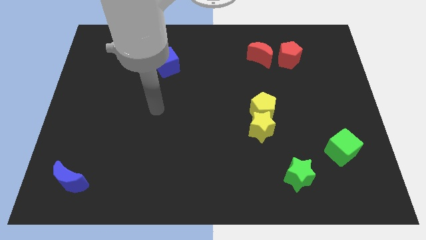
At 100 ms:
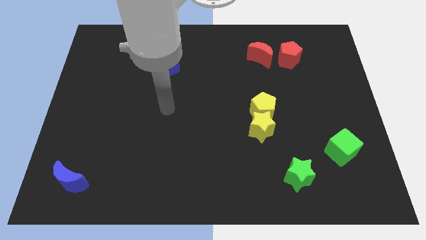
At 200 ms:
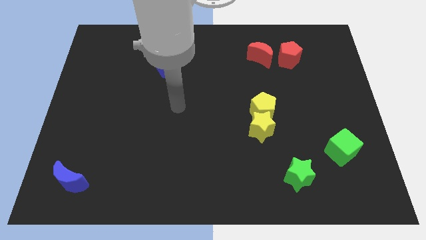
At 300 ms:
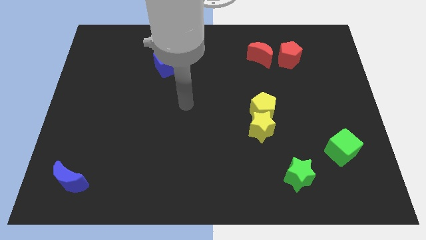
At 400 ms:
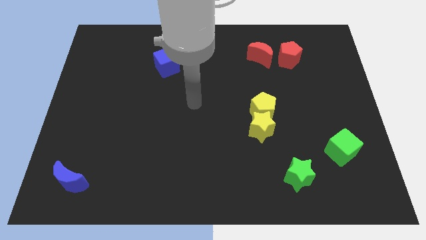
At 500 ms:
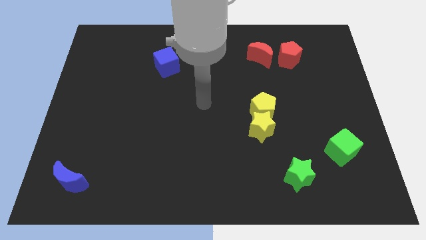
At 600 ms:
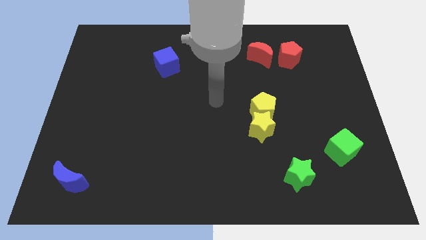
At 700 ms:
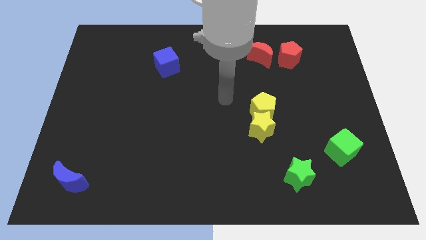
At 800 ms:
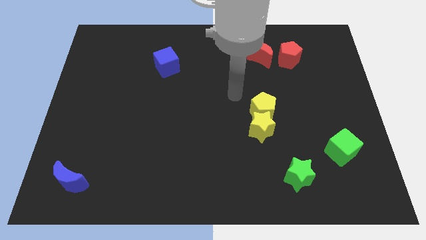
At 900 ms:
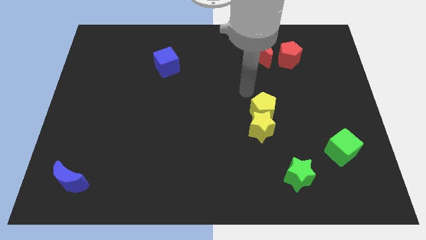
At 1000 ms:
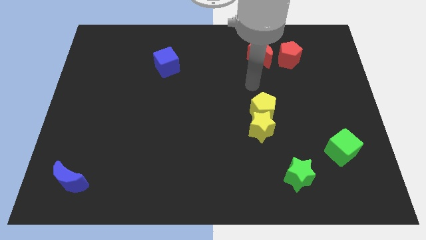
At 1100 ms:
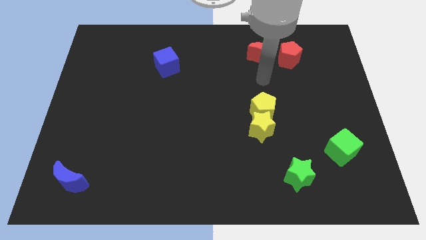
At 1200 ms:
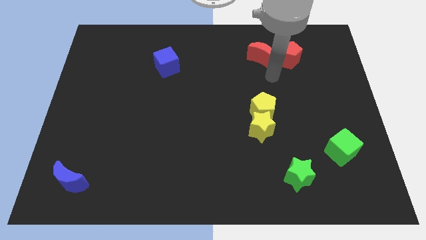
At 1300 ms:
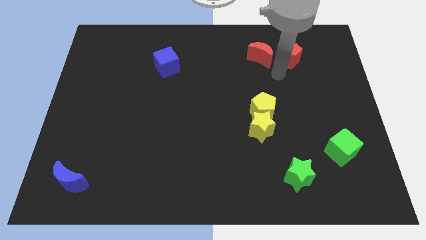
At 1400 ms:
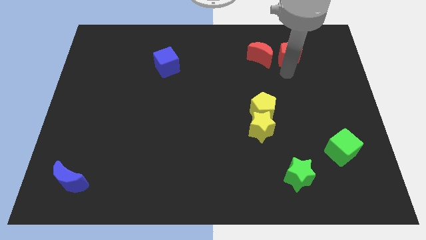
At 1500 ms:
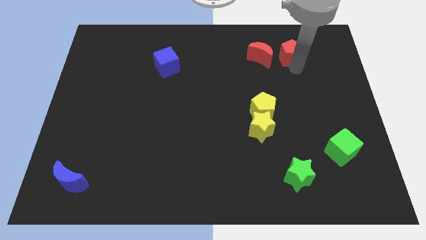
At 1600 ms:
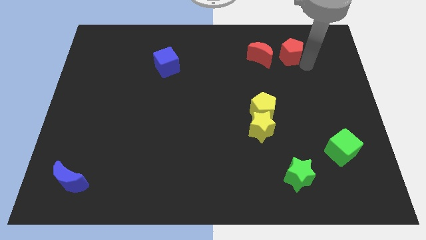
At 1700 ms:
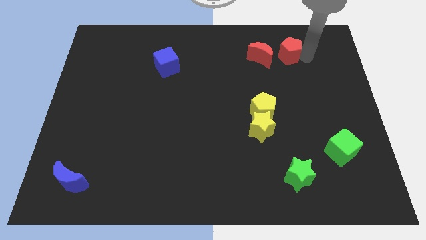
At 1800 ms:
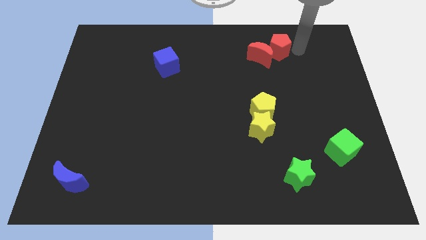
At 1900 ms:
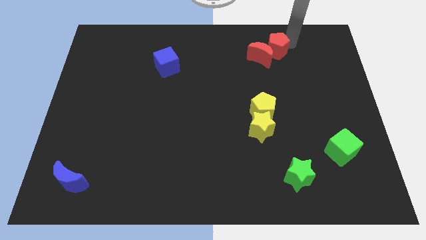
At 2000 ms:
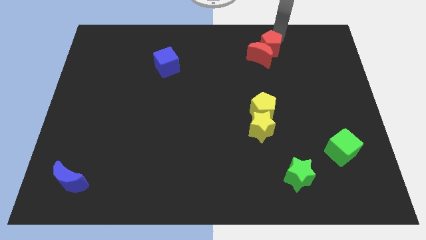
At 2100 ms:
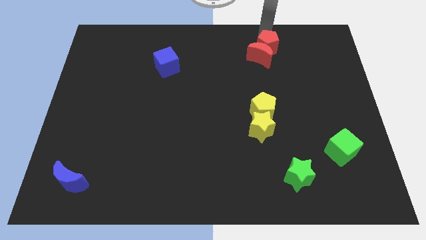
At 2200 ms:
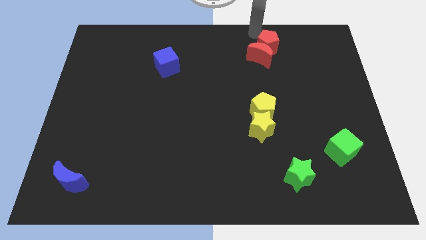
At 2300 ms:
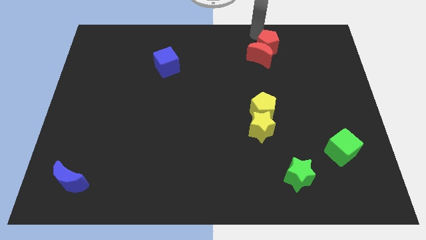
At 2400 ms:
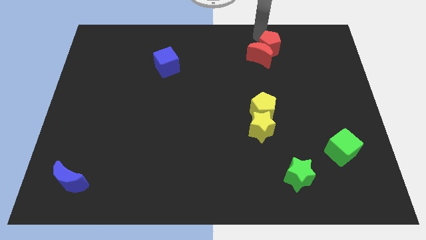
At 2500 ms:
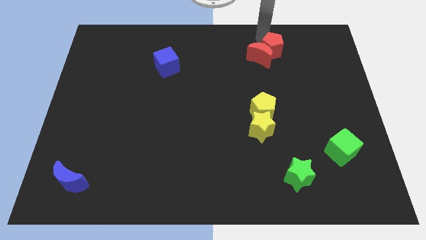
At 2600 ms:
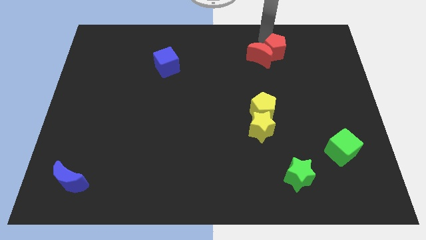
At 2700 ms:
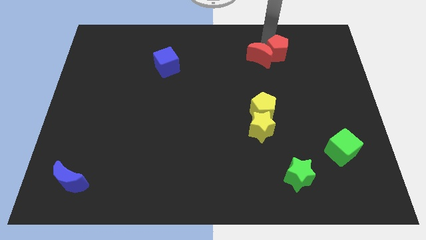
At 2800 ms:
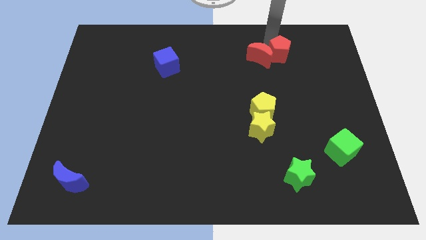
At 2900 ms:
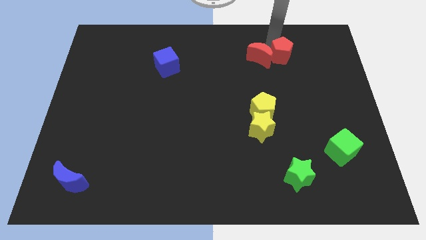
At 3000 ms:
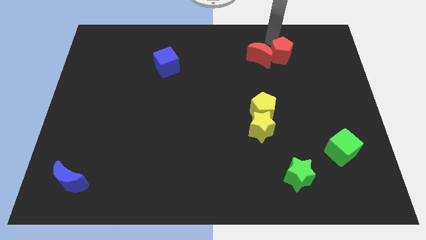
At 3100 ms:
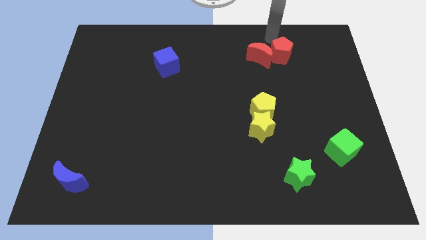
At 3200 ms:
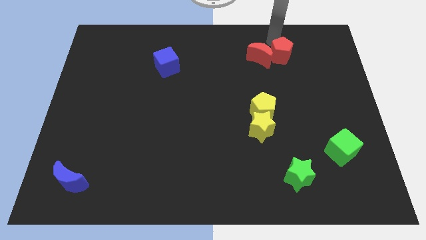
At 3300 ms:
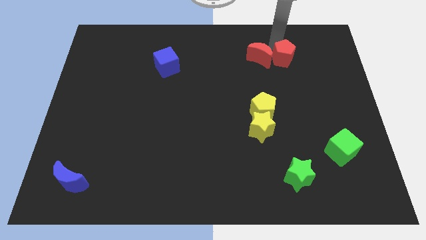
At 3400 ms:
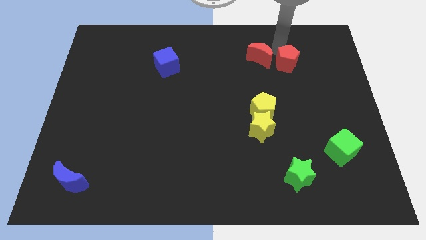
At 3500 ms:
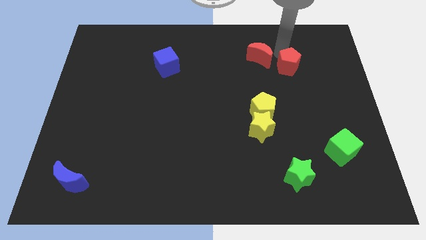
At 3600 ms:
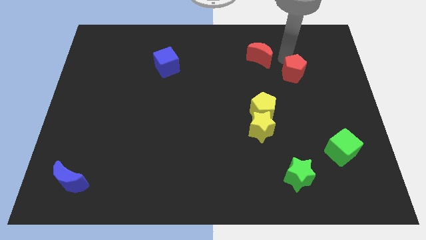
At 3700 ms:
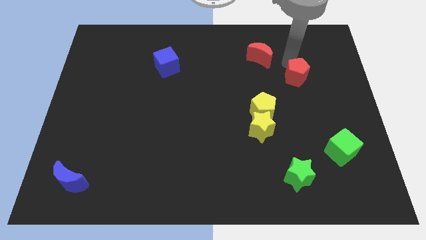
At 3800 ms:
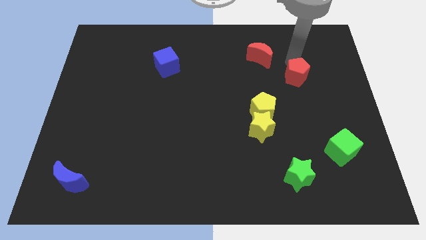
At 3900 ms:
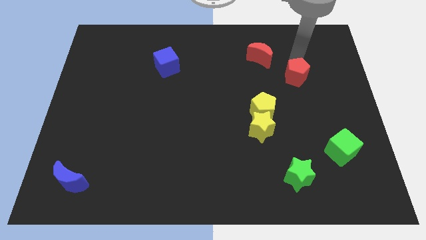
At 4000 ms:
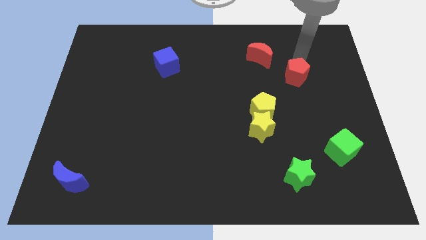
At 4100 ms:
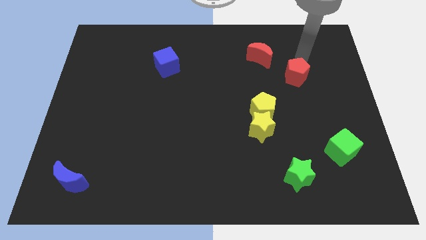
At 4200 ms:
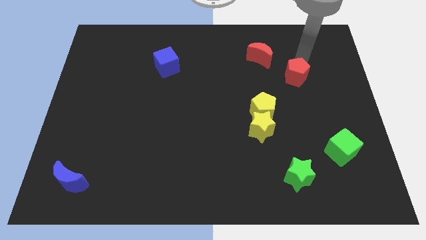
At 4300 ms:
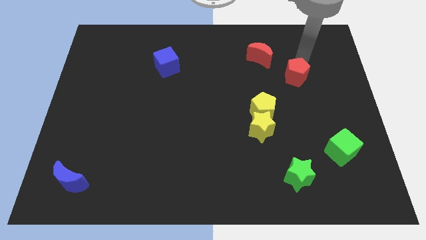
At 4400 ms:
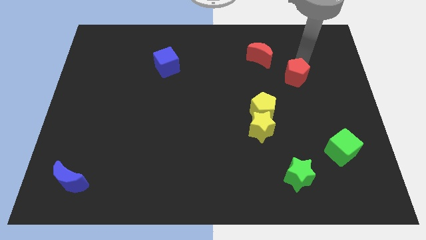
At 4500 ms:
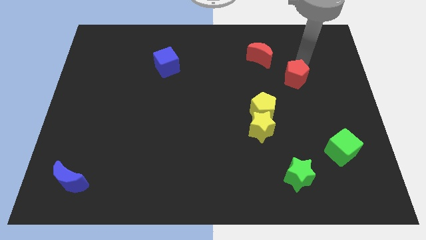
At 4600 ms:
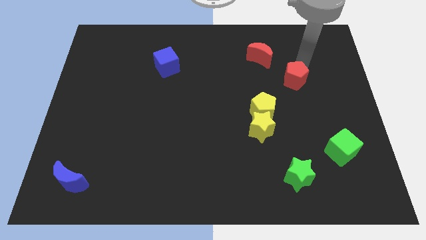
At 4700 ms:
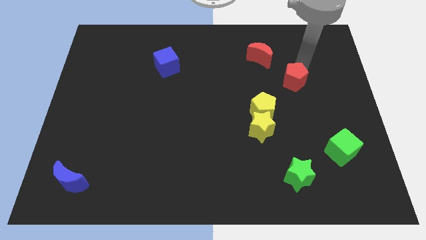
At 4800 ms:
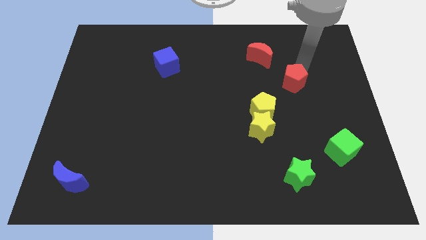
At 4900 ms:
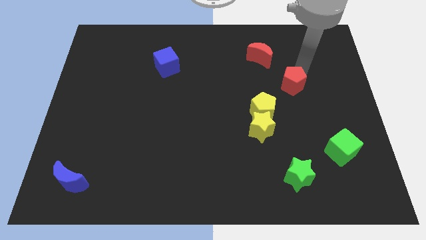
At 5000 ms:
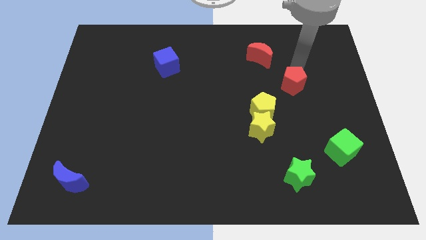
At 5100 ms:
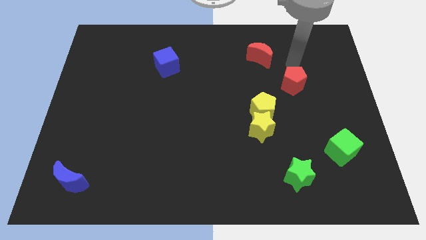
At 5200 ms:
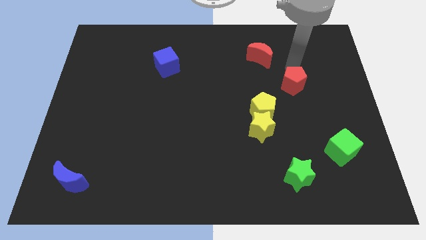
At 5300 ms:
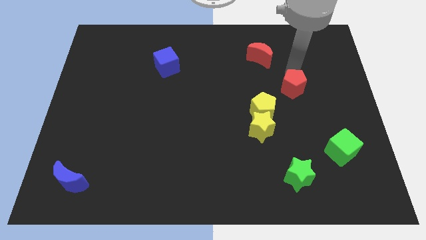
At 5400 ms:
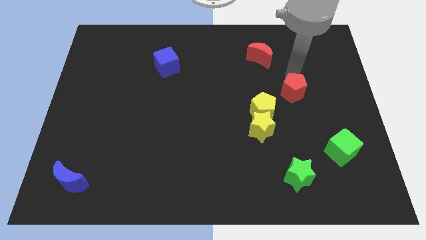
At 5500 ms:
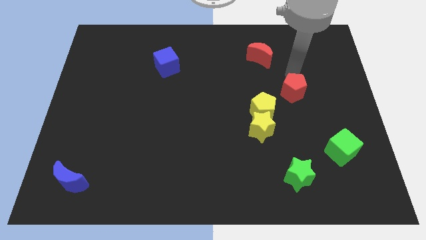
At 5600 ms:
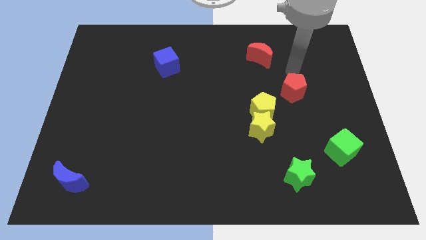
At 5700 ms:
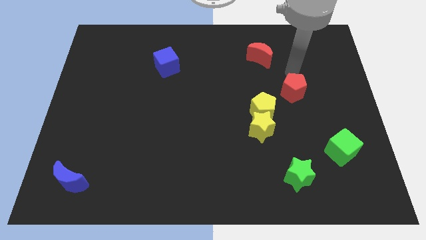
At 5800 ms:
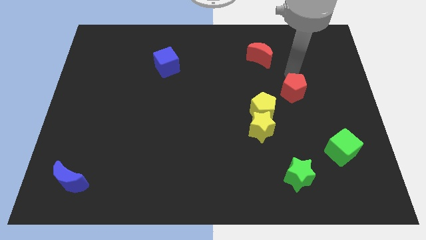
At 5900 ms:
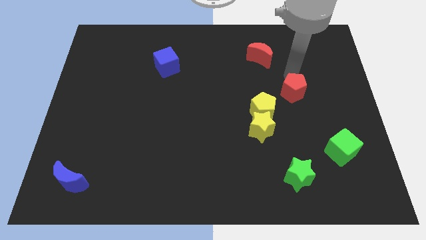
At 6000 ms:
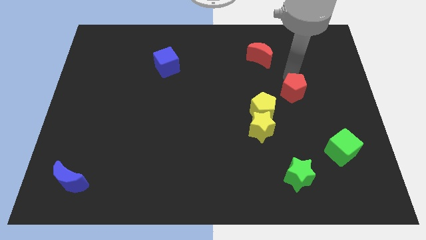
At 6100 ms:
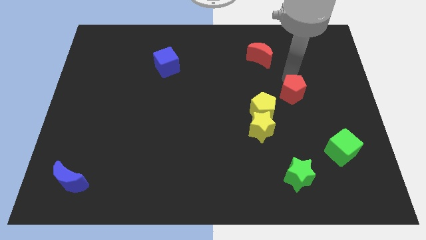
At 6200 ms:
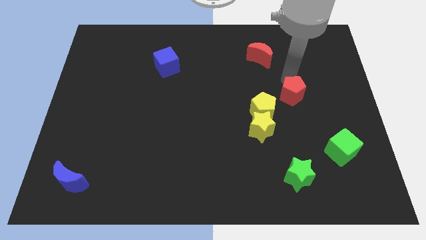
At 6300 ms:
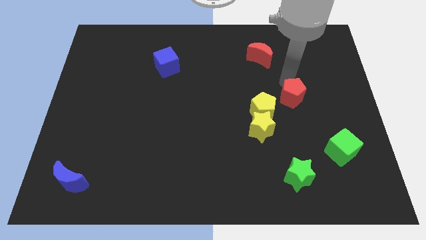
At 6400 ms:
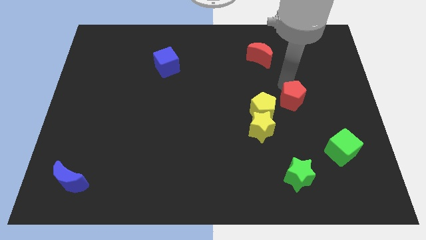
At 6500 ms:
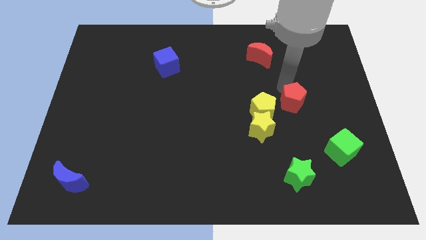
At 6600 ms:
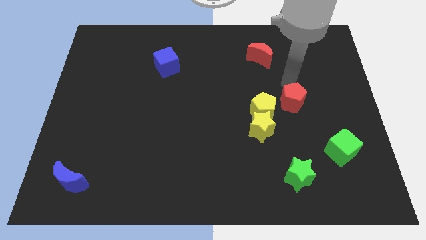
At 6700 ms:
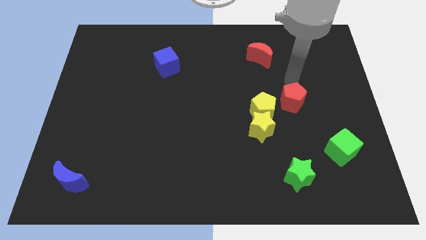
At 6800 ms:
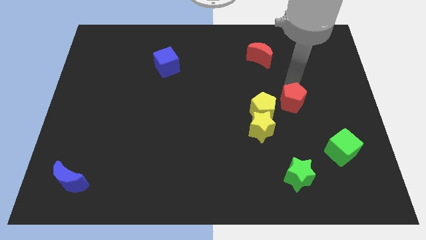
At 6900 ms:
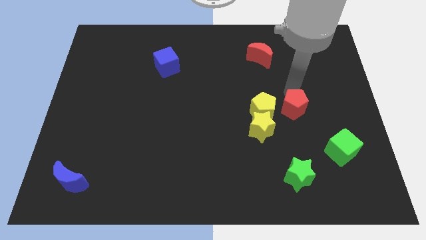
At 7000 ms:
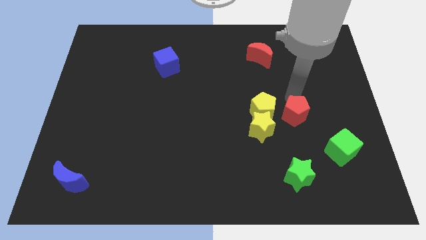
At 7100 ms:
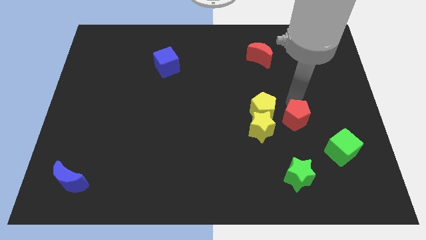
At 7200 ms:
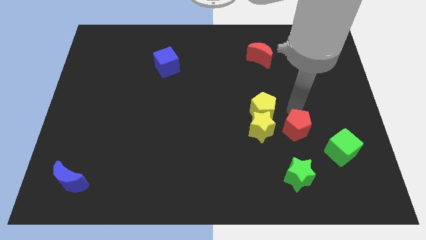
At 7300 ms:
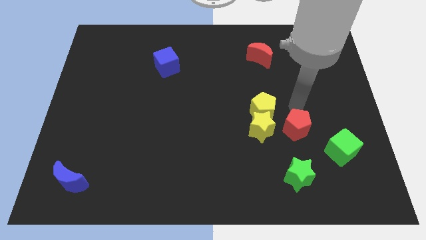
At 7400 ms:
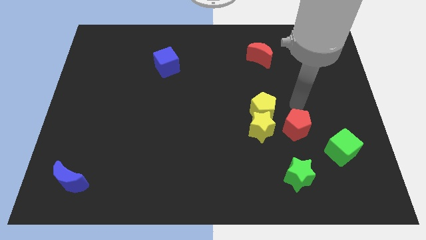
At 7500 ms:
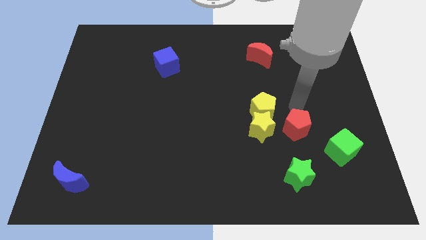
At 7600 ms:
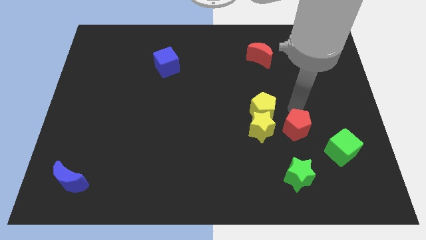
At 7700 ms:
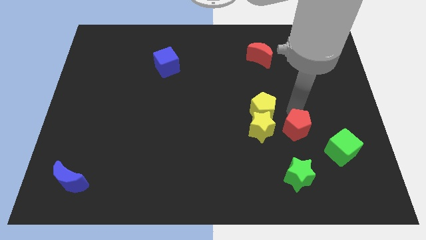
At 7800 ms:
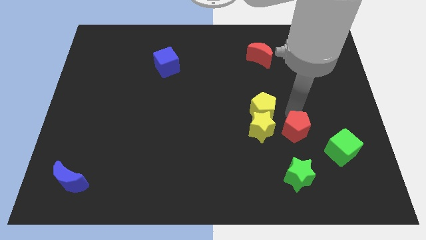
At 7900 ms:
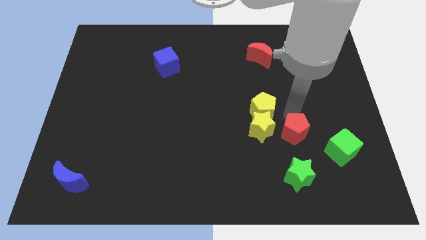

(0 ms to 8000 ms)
push the red pentagon just left of the green cube
